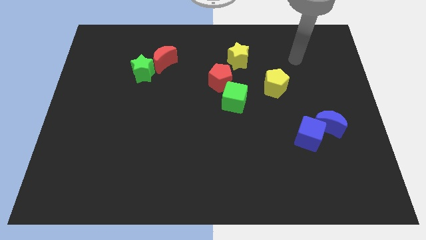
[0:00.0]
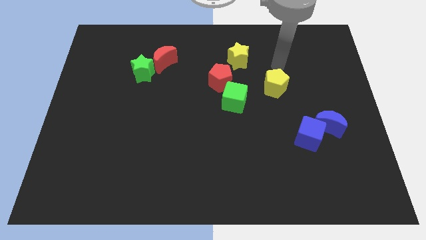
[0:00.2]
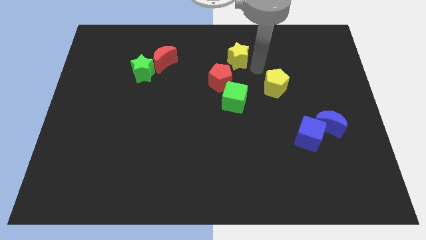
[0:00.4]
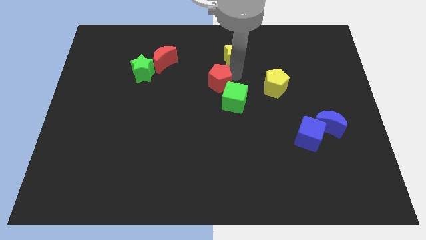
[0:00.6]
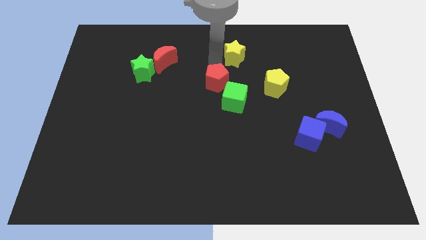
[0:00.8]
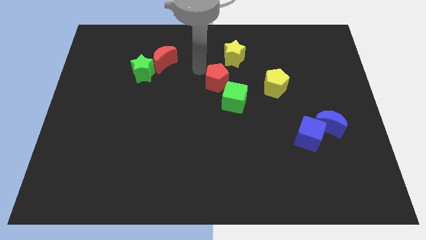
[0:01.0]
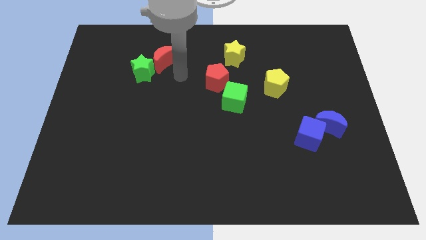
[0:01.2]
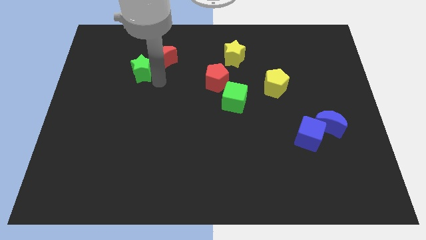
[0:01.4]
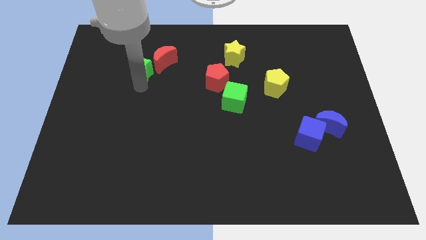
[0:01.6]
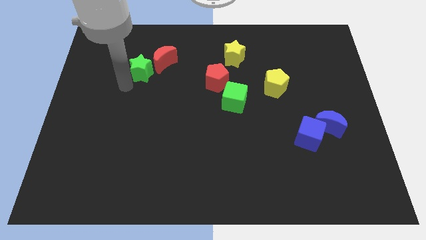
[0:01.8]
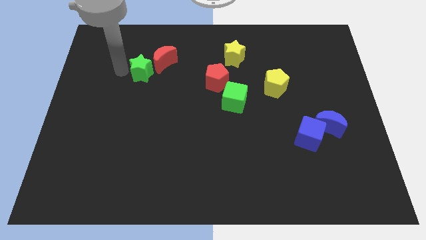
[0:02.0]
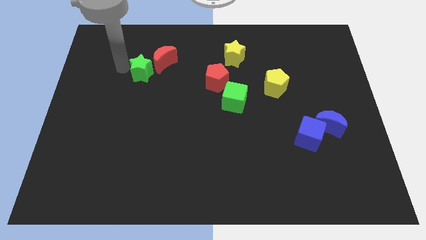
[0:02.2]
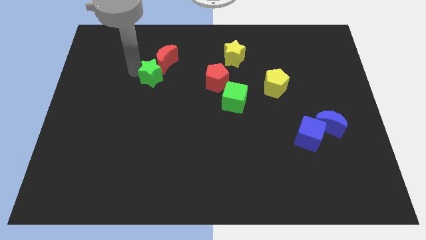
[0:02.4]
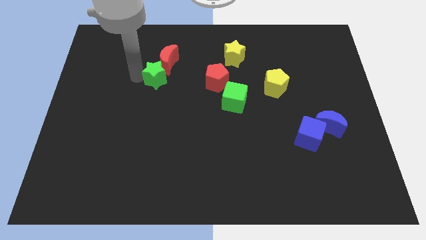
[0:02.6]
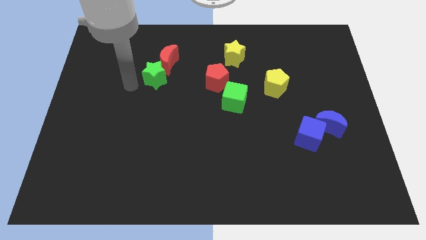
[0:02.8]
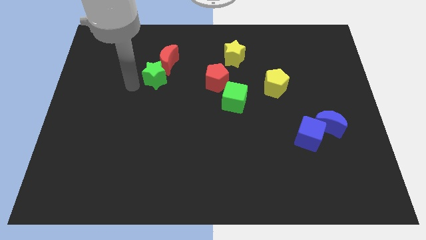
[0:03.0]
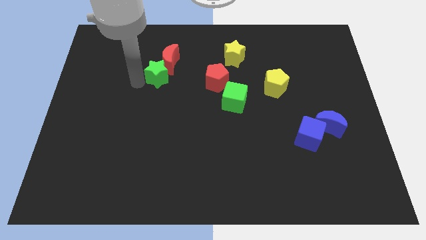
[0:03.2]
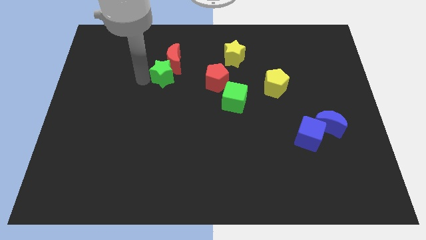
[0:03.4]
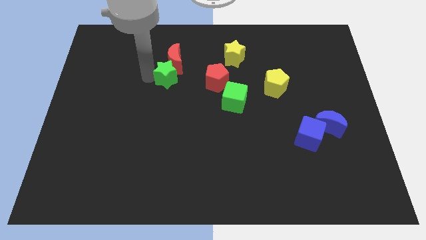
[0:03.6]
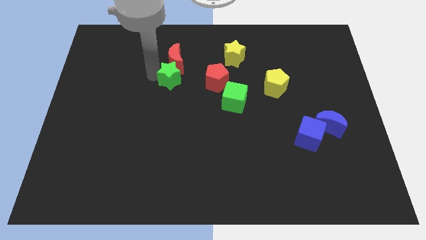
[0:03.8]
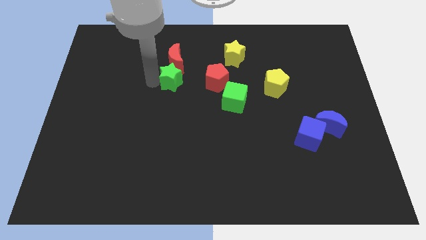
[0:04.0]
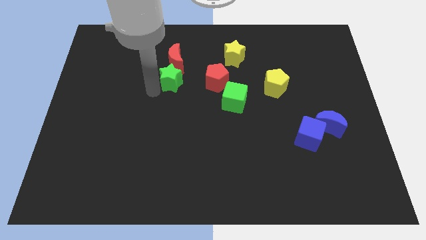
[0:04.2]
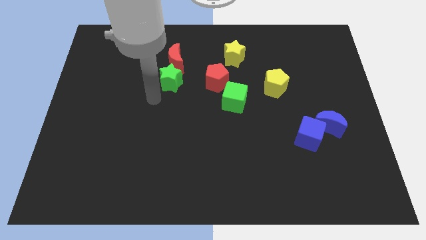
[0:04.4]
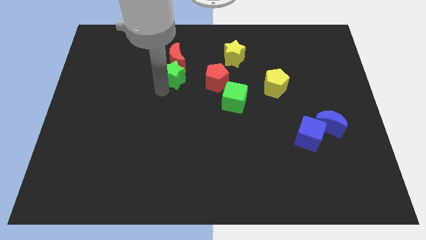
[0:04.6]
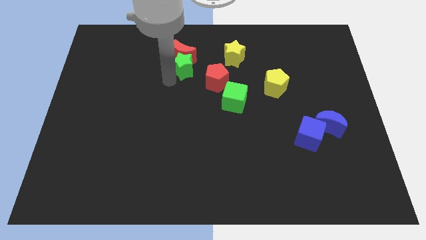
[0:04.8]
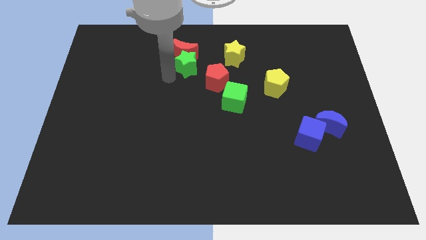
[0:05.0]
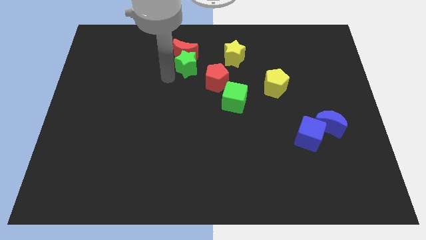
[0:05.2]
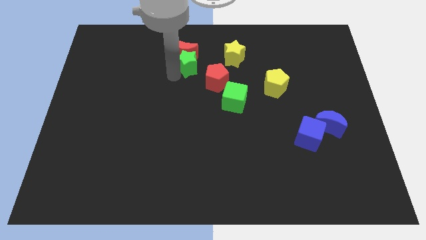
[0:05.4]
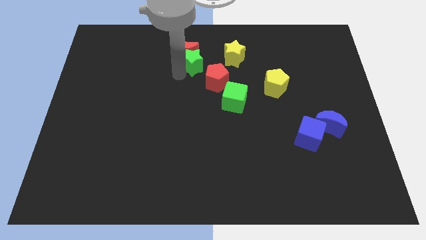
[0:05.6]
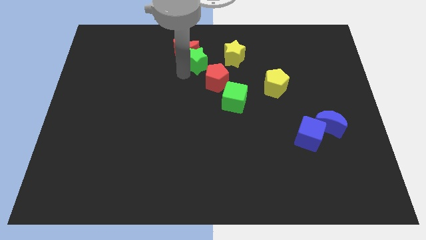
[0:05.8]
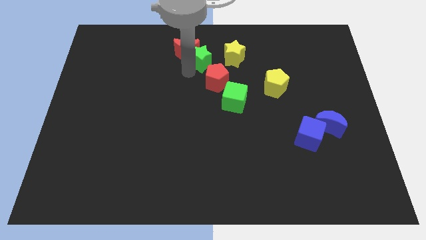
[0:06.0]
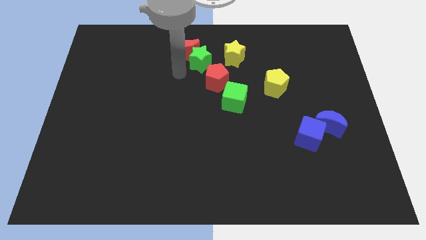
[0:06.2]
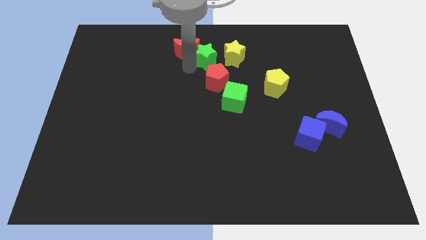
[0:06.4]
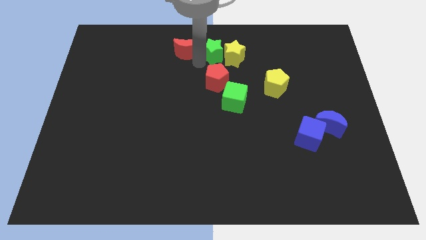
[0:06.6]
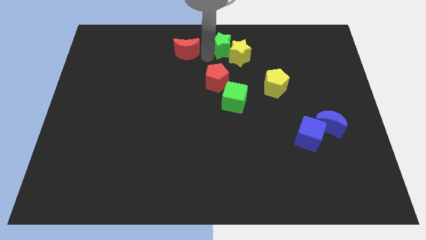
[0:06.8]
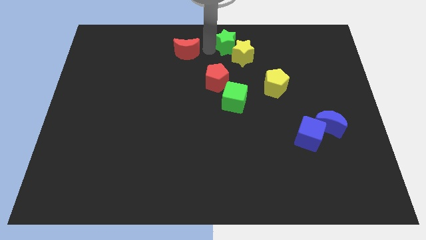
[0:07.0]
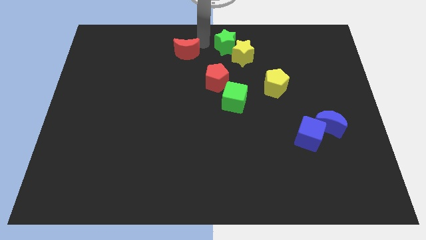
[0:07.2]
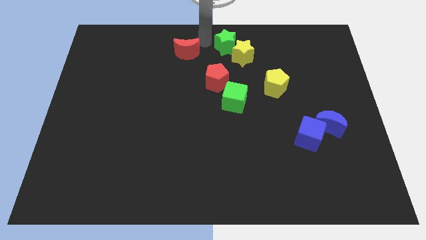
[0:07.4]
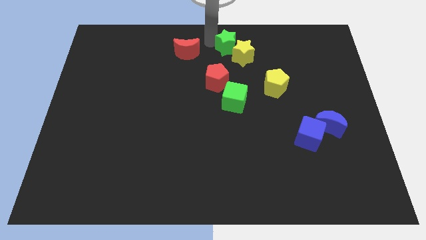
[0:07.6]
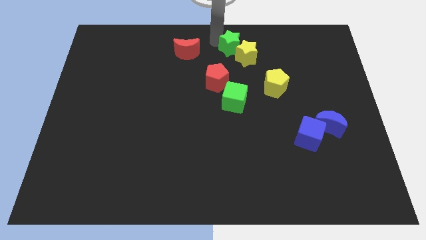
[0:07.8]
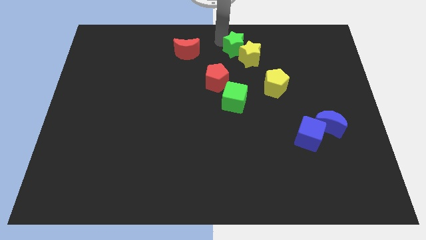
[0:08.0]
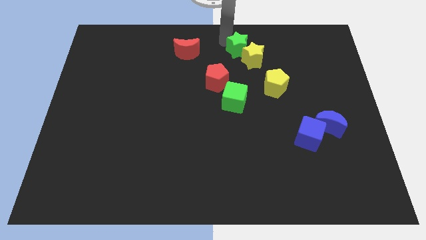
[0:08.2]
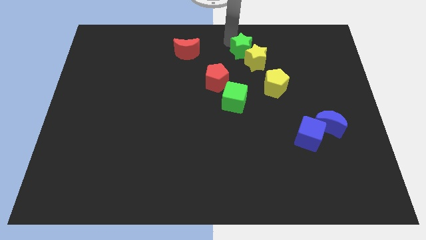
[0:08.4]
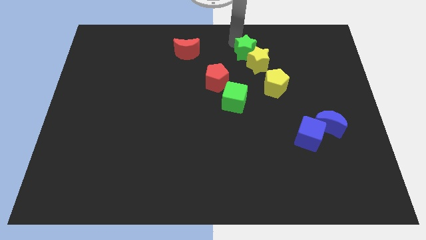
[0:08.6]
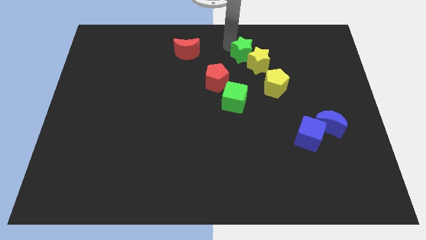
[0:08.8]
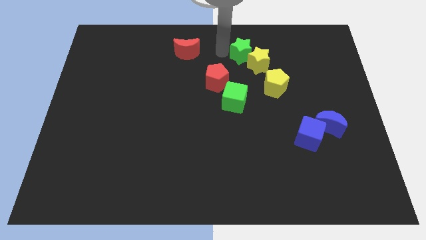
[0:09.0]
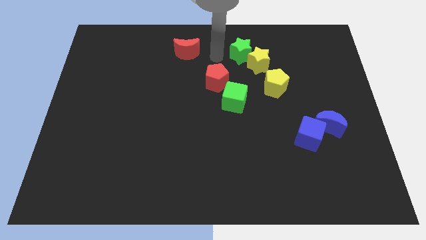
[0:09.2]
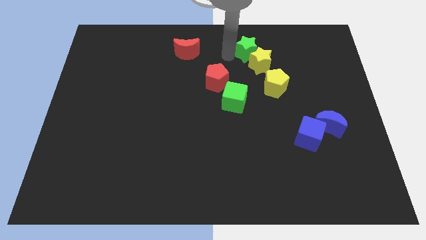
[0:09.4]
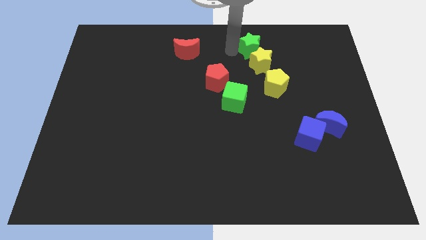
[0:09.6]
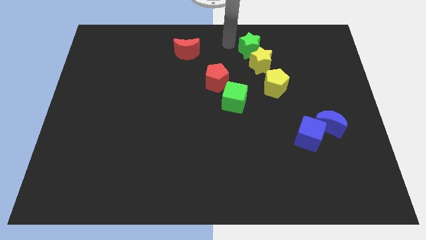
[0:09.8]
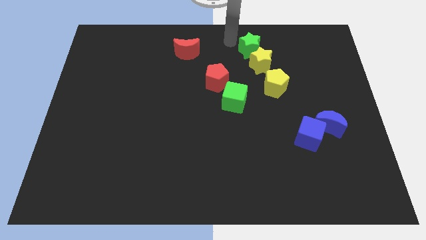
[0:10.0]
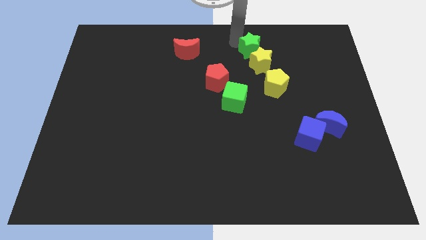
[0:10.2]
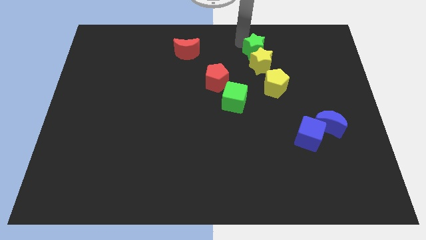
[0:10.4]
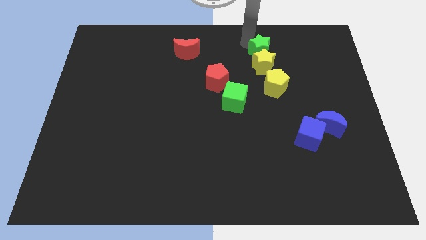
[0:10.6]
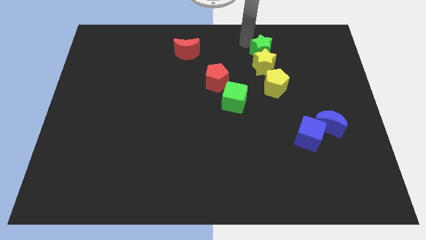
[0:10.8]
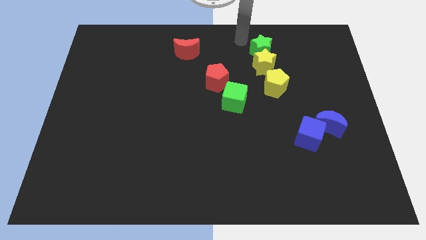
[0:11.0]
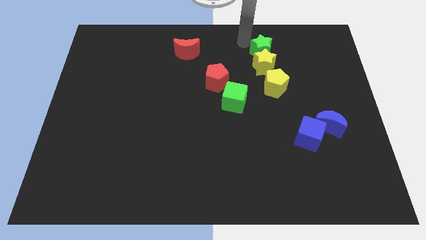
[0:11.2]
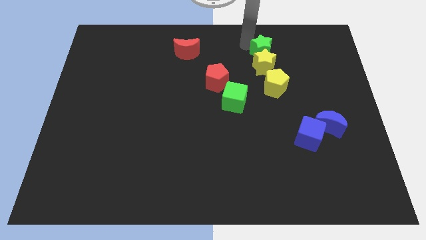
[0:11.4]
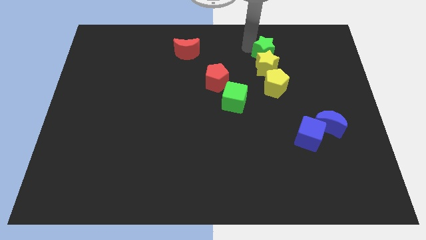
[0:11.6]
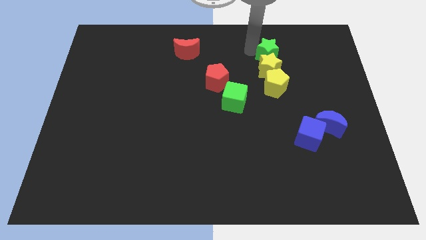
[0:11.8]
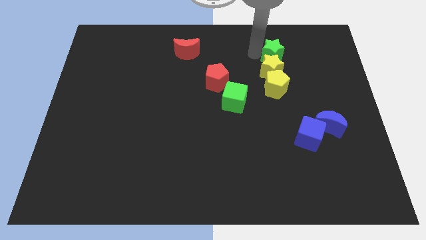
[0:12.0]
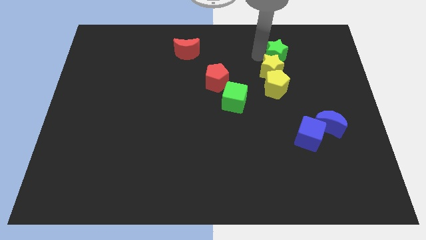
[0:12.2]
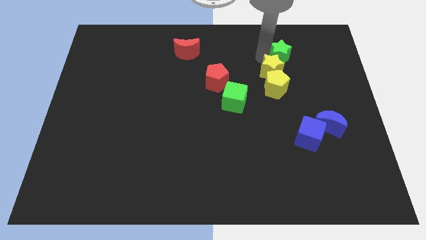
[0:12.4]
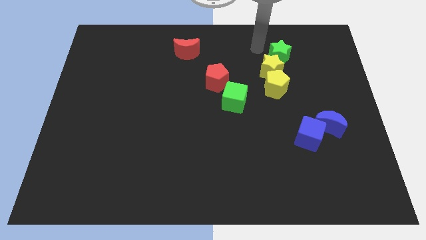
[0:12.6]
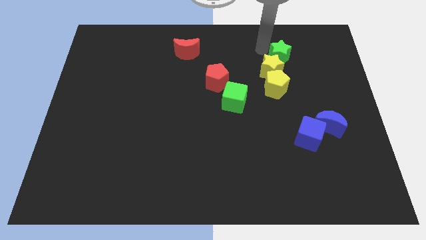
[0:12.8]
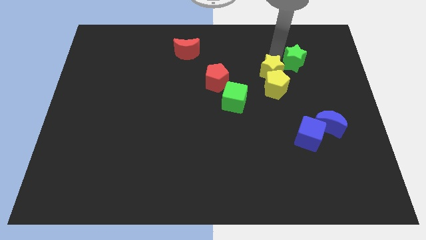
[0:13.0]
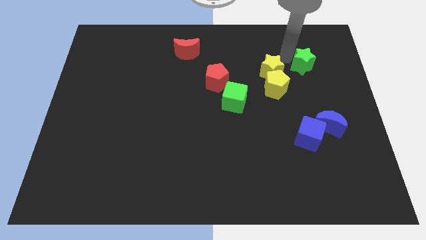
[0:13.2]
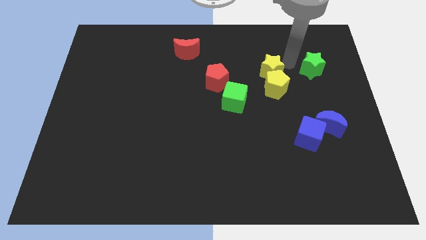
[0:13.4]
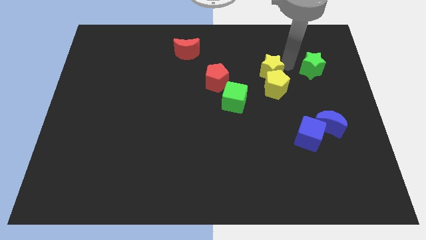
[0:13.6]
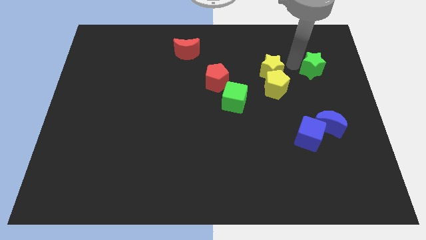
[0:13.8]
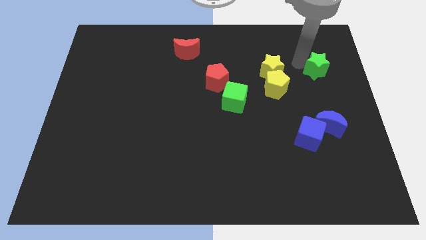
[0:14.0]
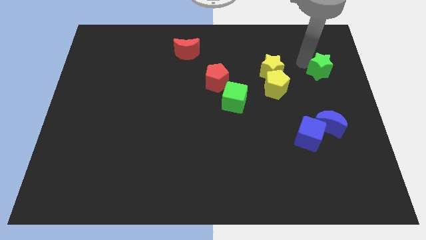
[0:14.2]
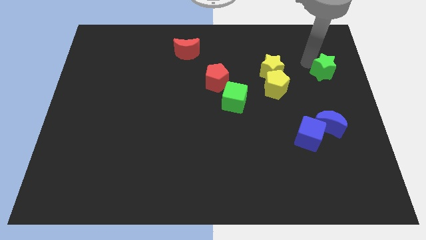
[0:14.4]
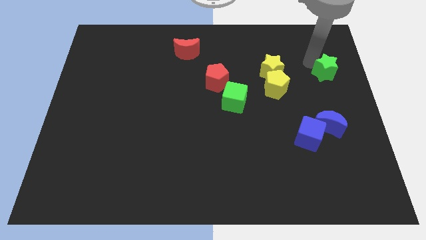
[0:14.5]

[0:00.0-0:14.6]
put the green star to the right side
